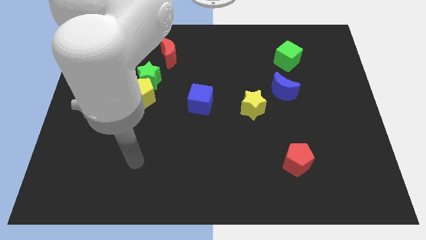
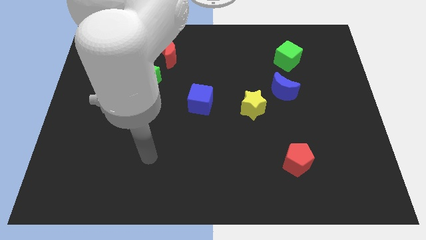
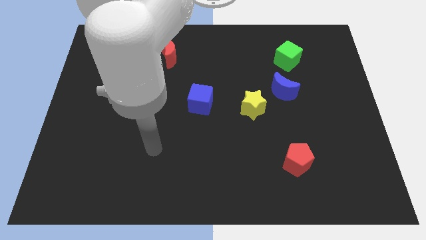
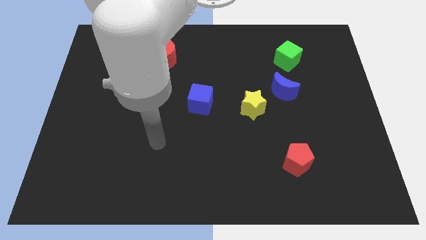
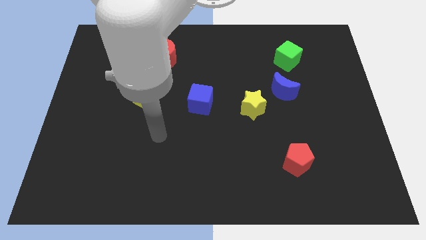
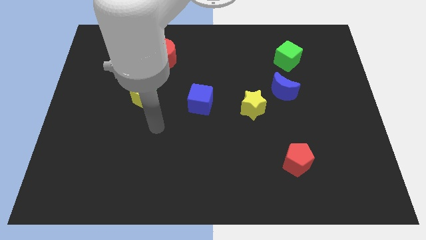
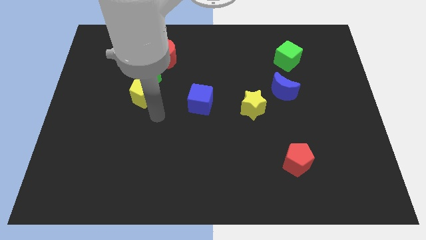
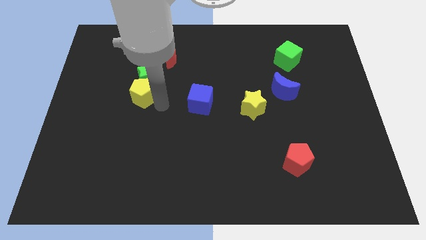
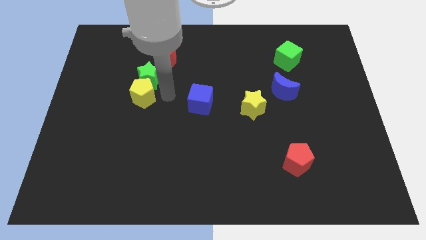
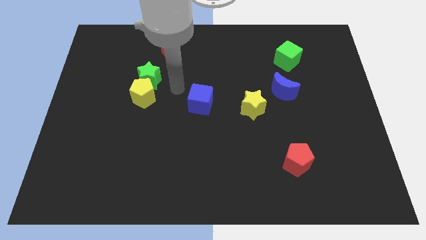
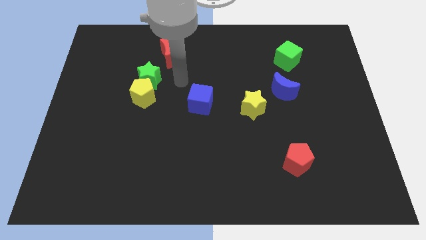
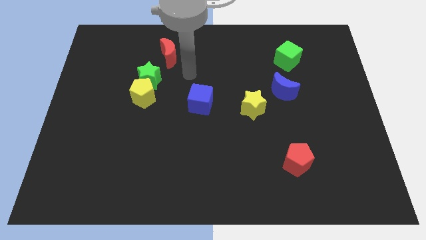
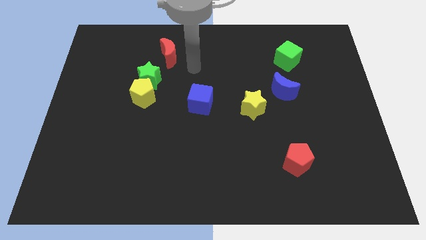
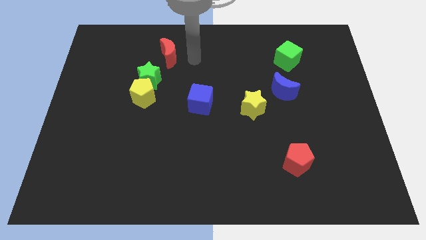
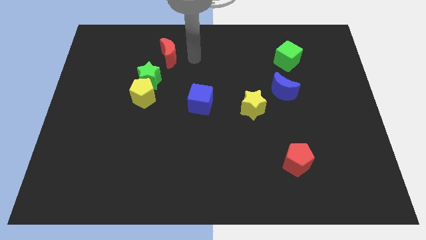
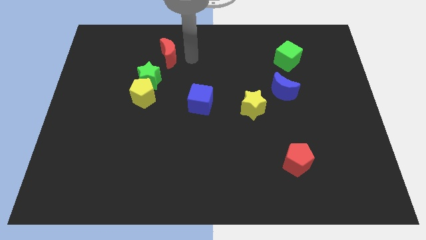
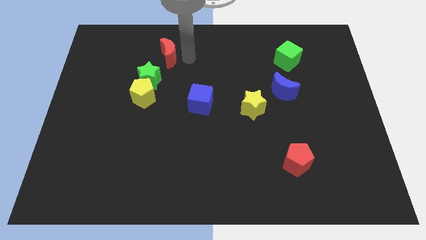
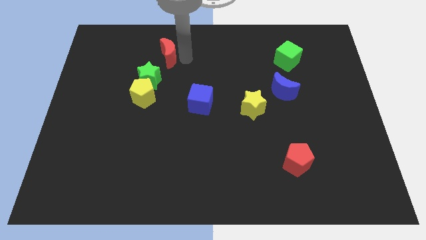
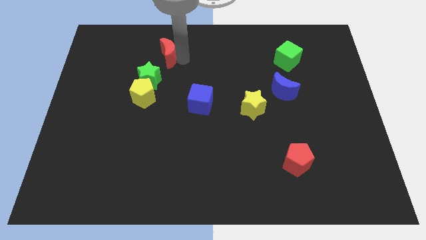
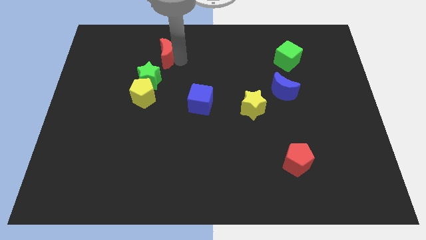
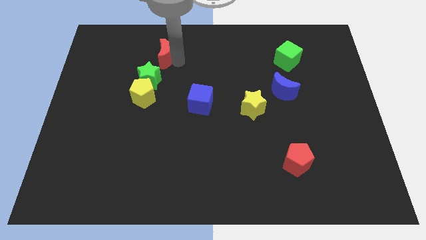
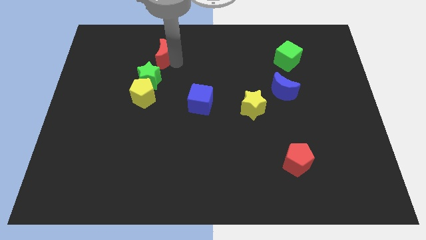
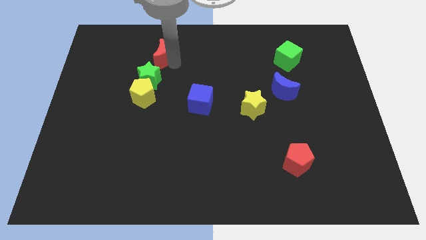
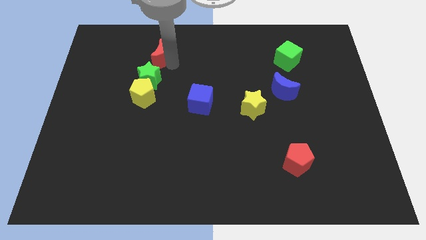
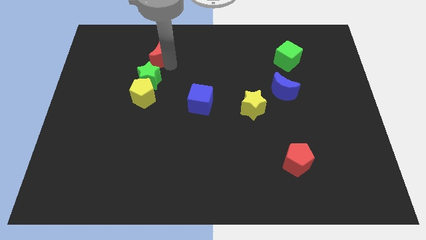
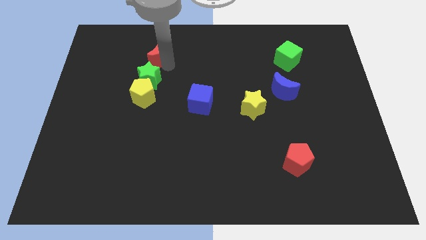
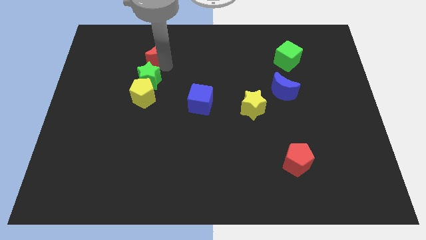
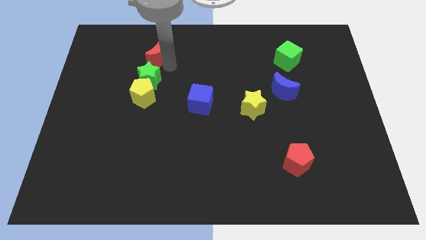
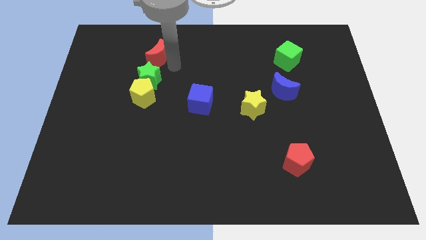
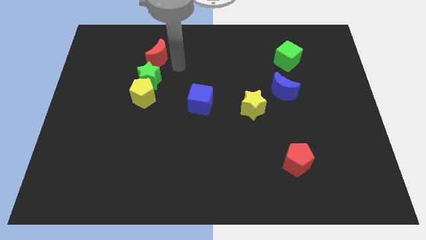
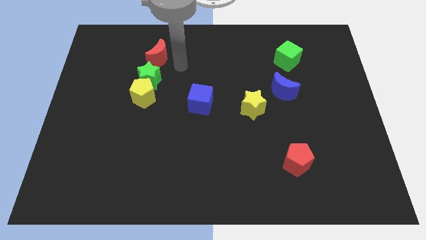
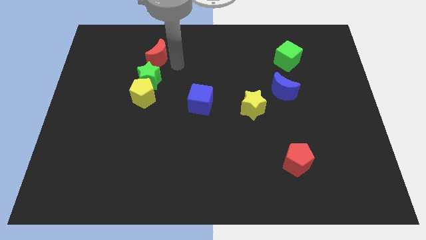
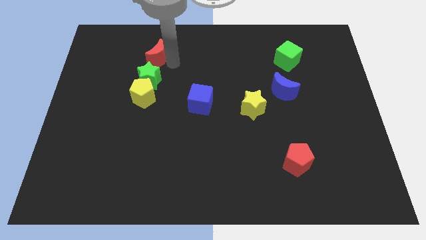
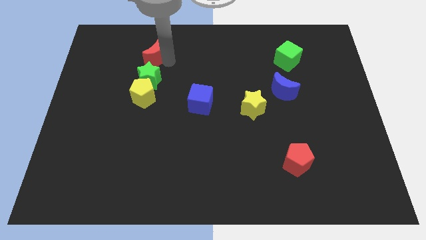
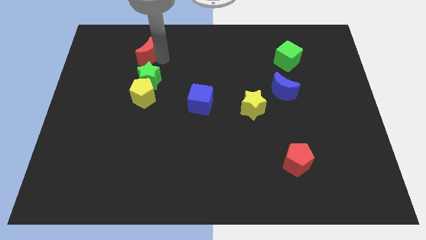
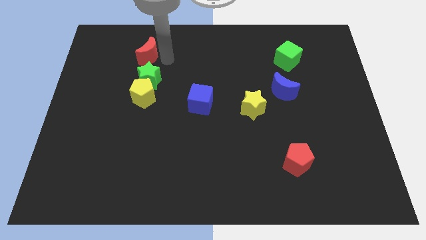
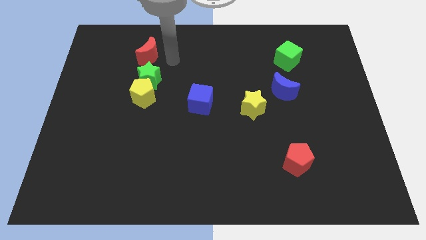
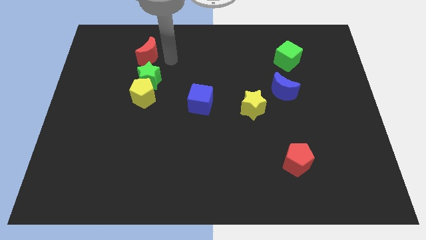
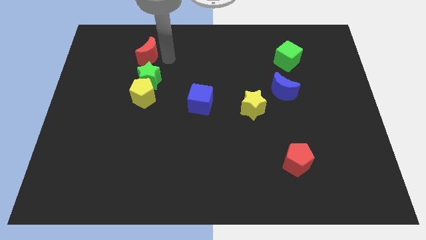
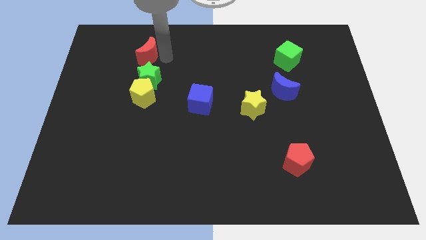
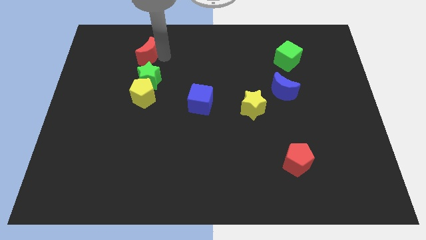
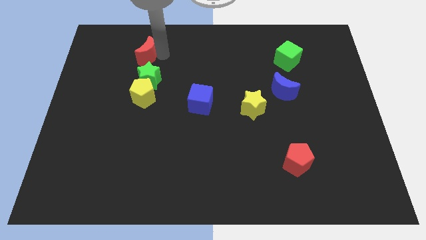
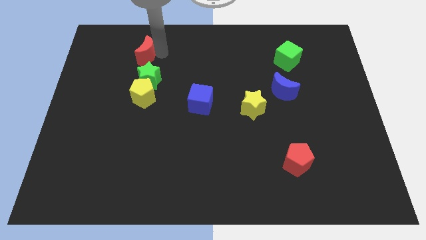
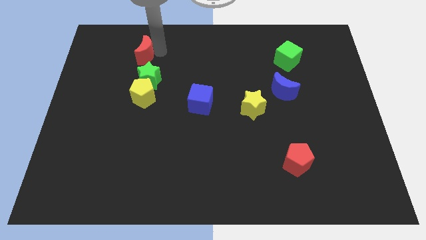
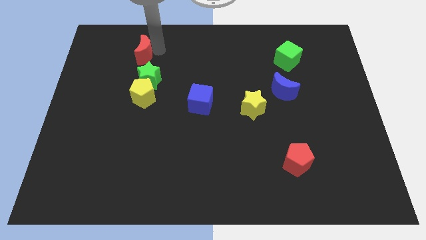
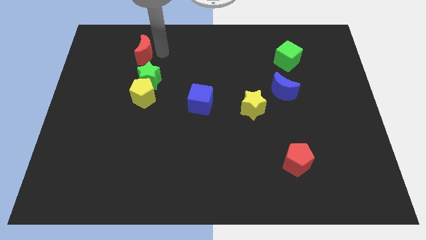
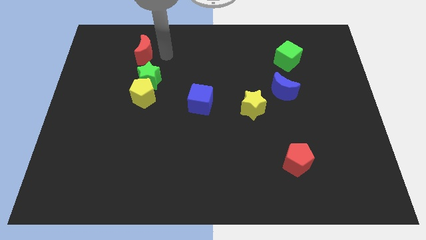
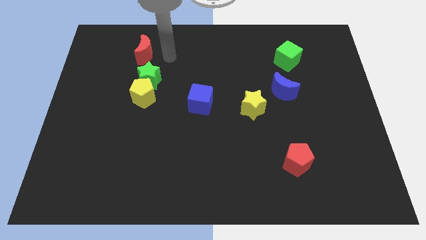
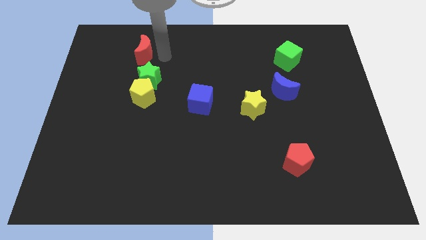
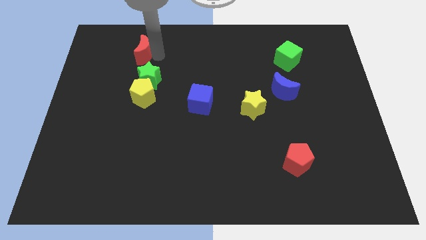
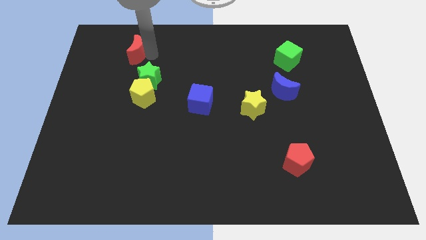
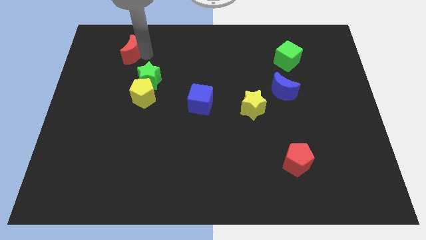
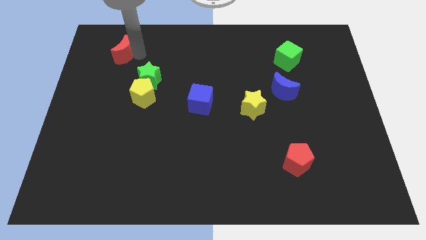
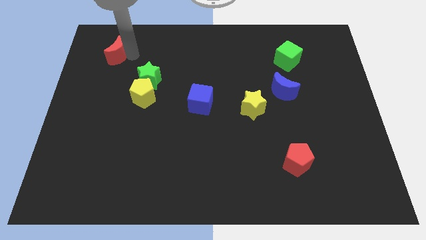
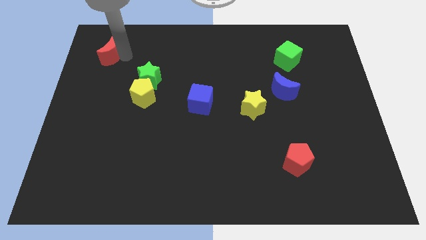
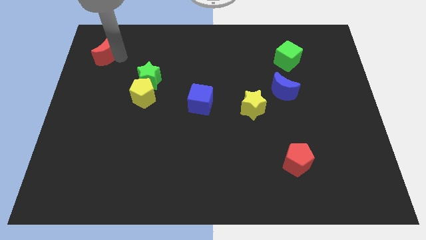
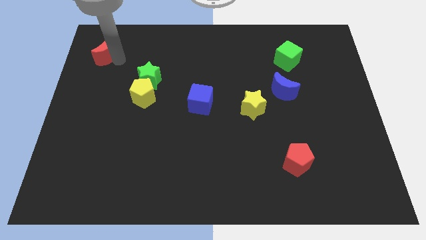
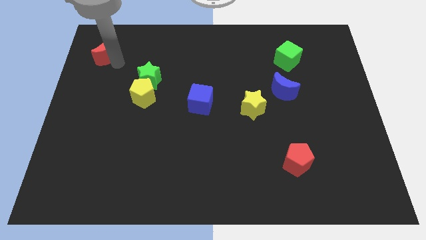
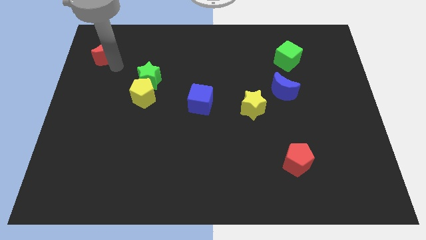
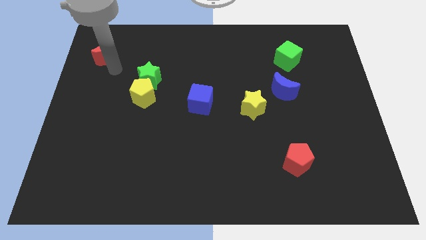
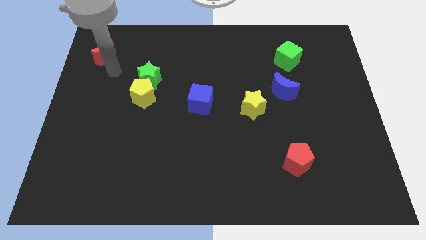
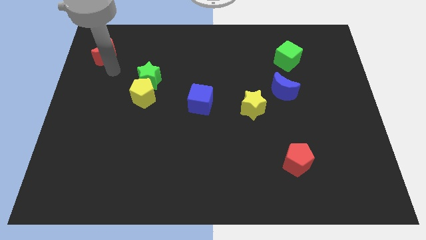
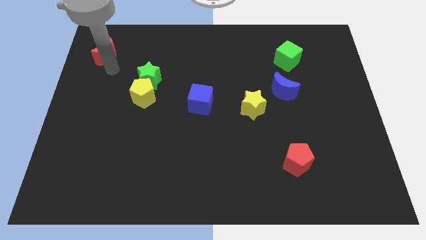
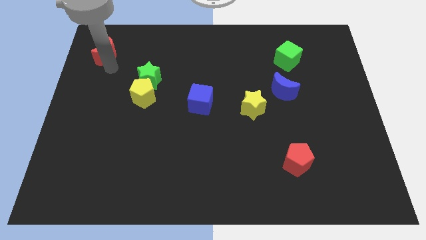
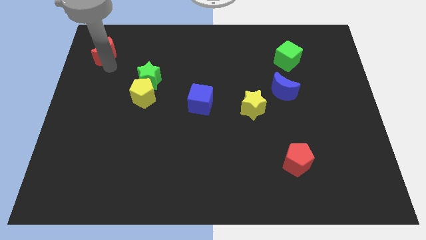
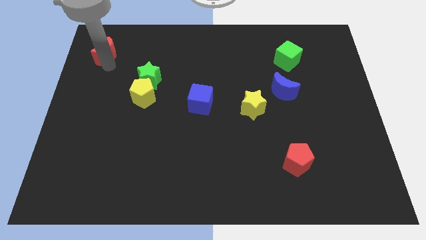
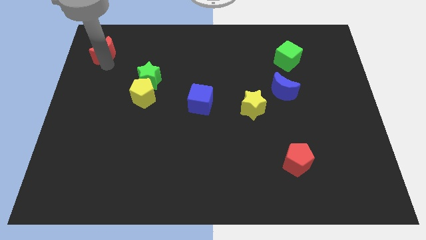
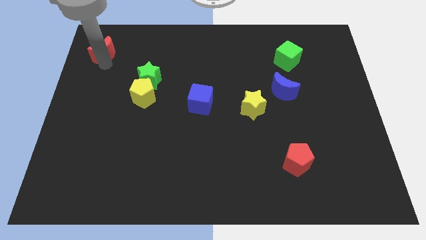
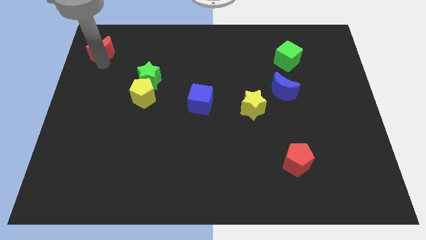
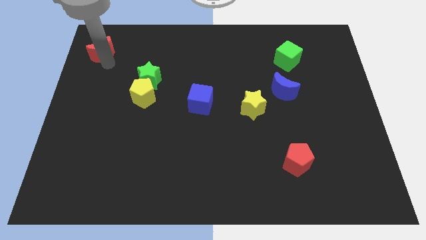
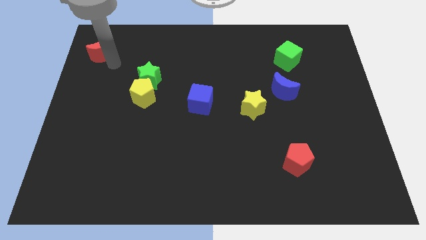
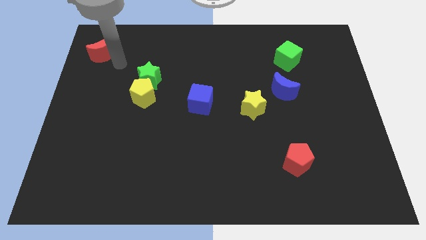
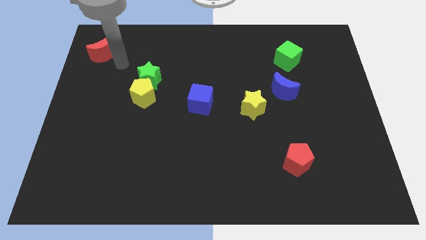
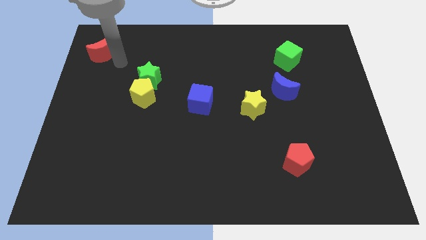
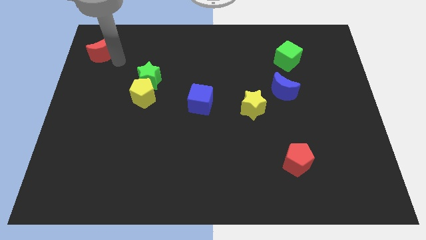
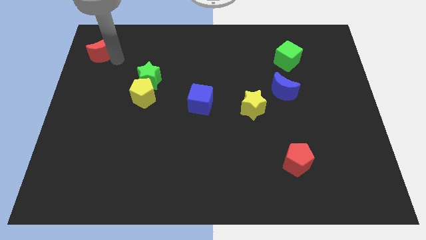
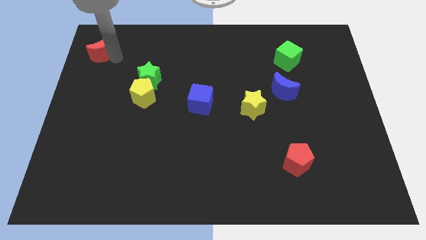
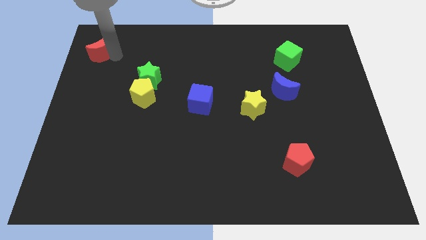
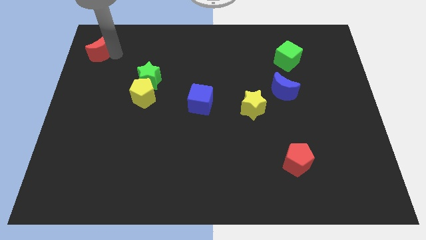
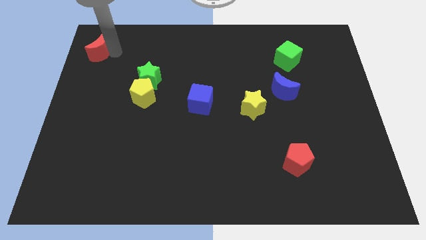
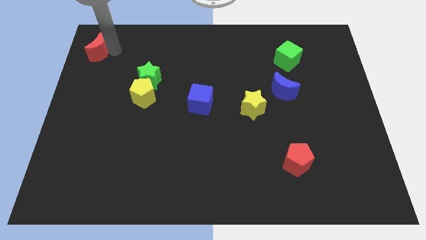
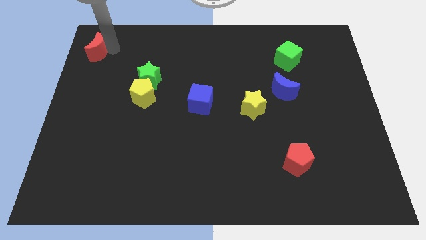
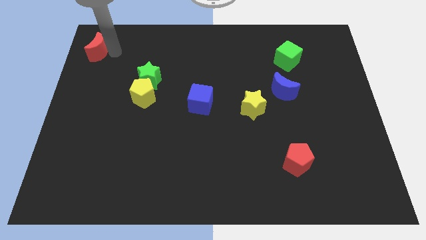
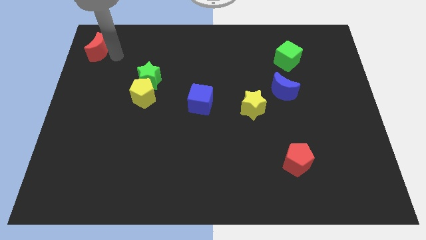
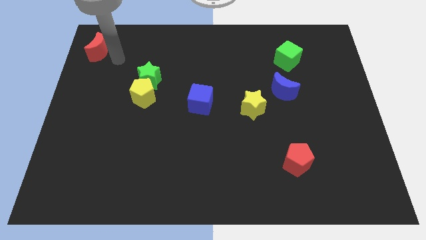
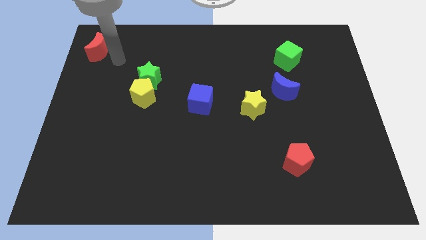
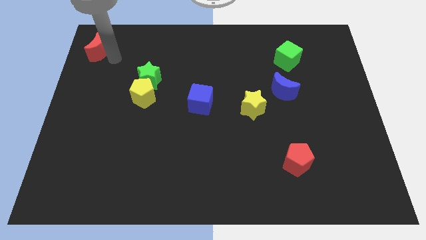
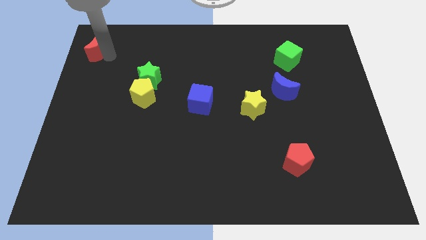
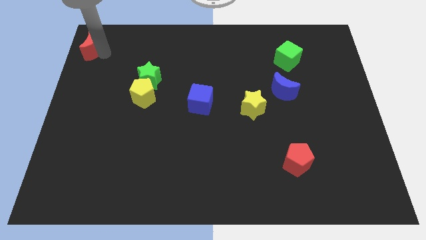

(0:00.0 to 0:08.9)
push the red moon to the top left corner
